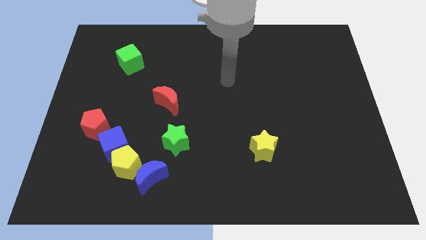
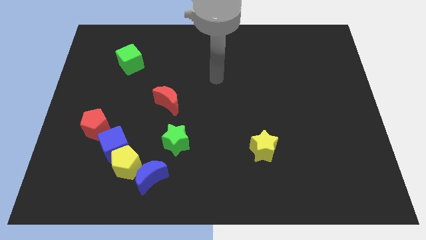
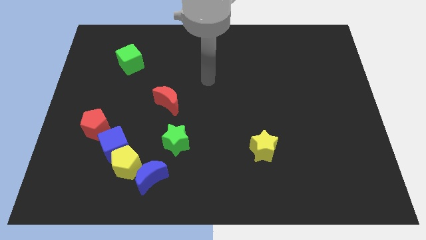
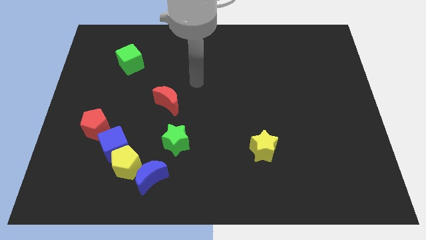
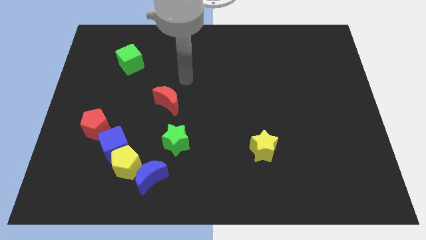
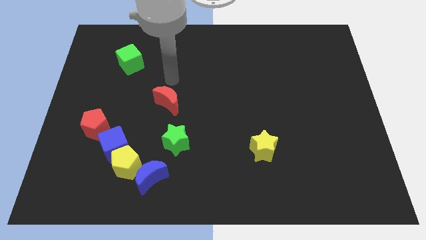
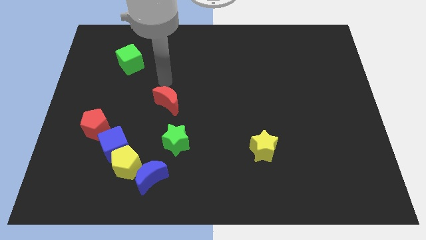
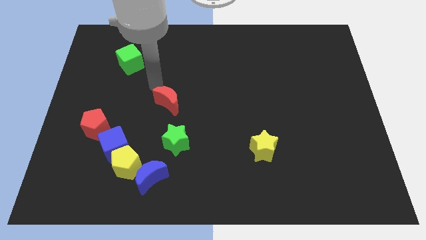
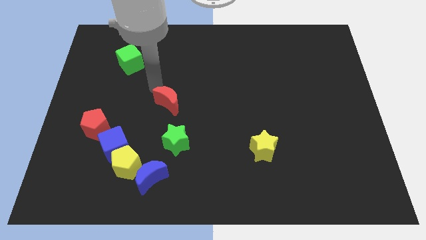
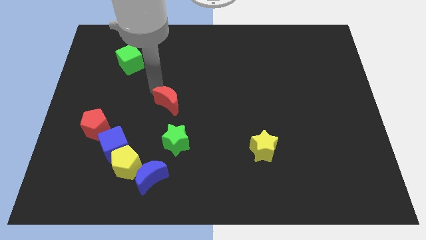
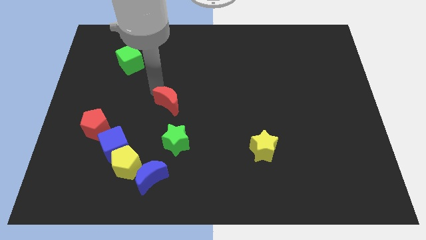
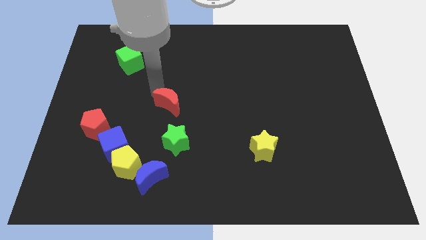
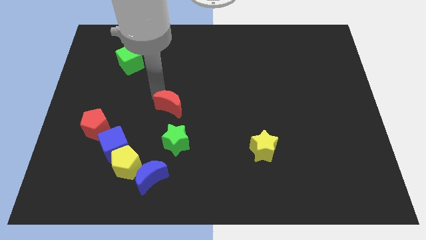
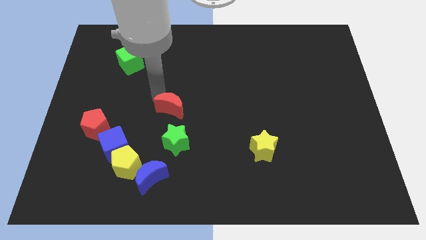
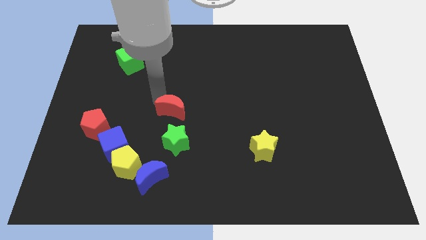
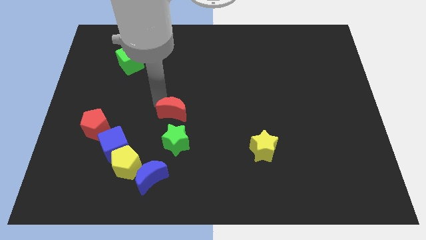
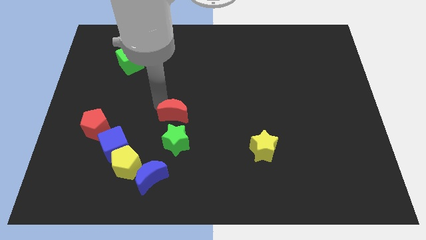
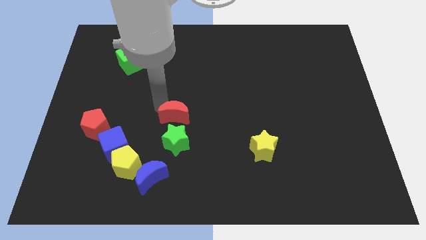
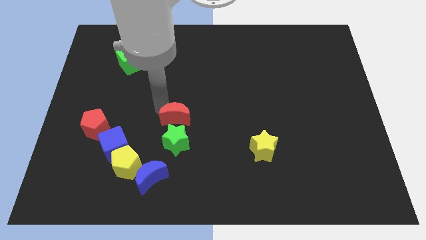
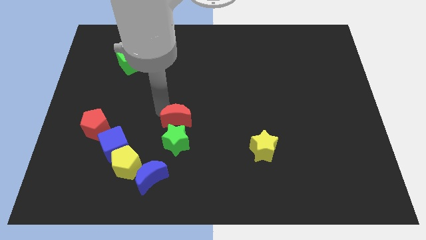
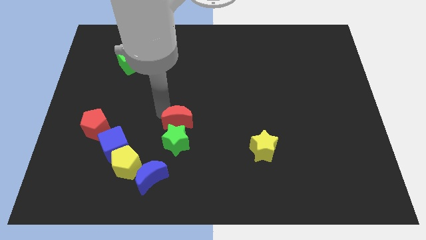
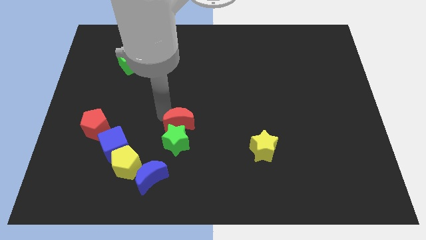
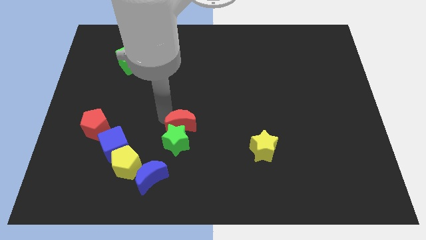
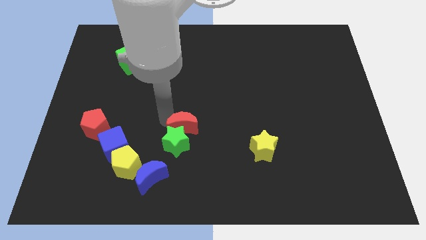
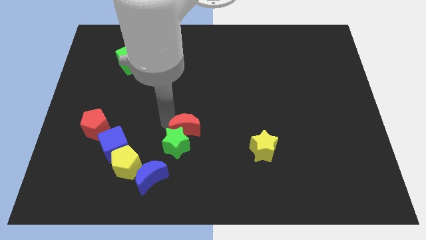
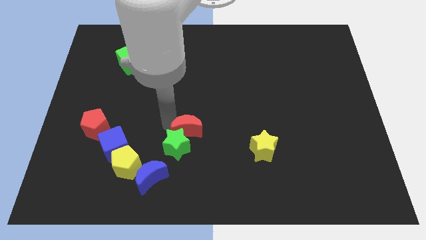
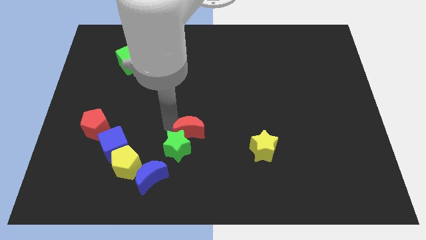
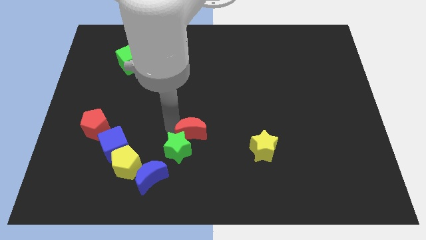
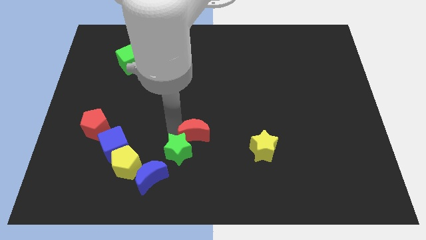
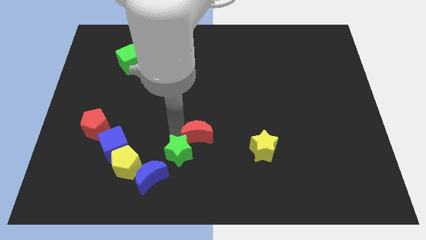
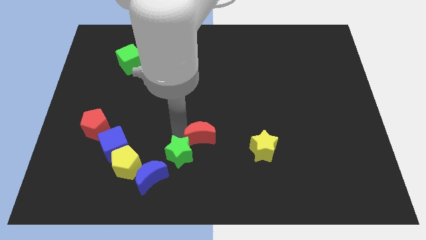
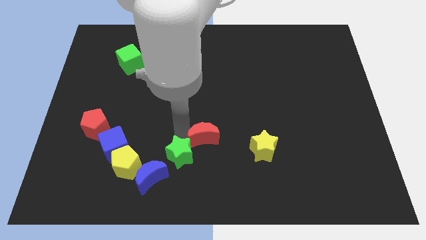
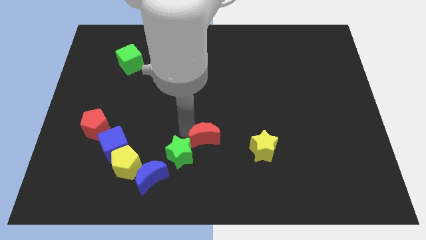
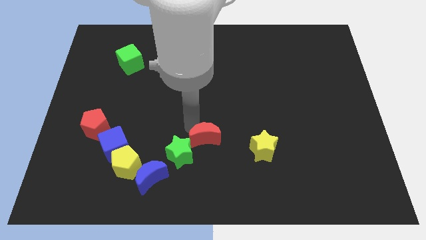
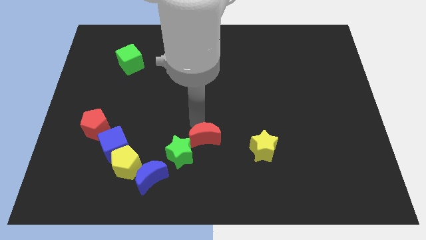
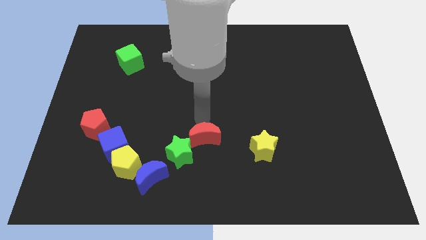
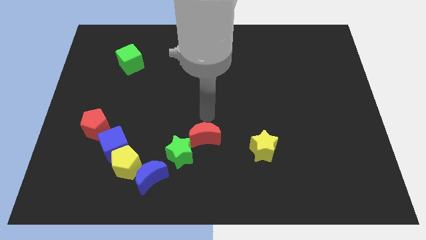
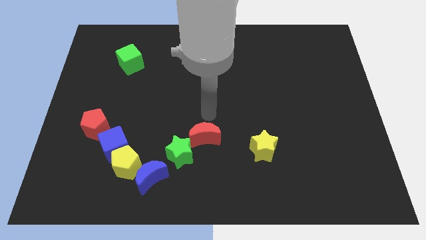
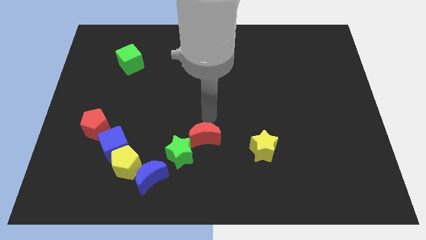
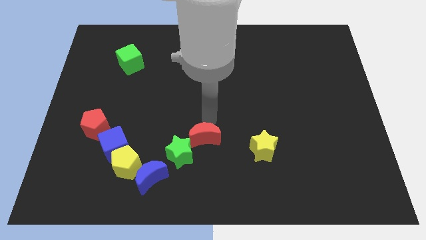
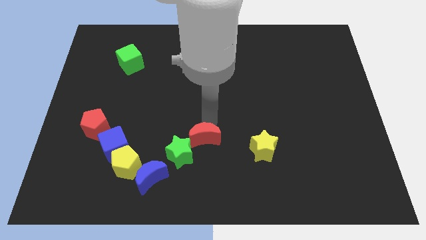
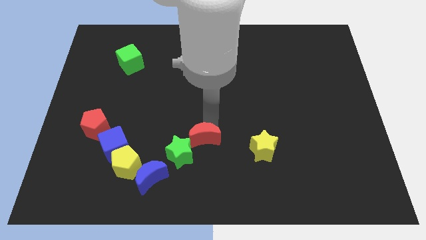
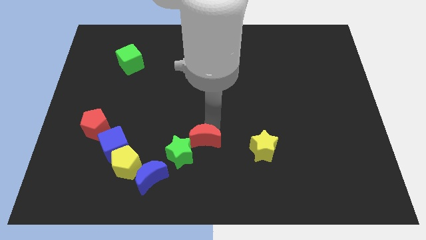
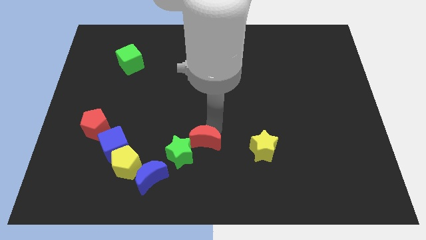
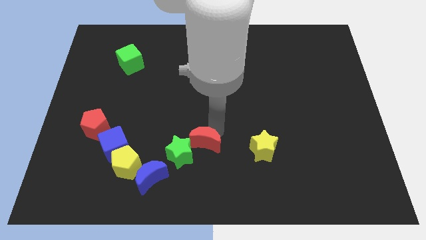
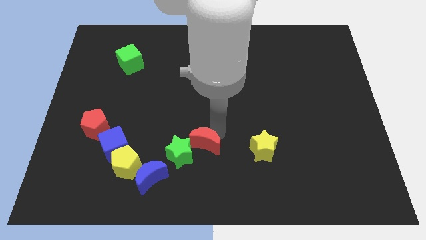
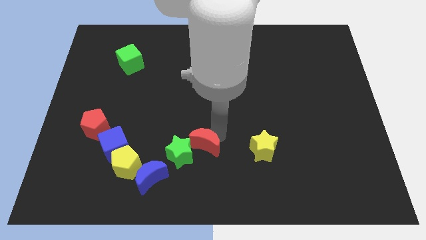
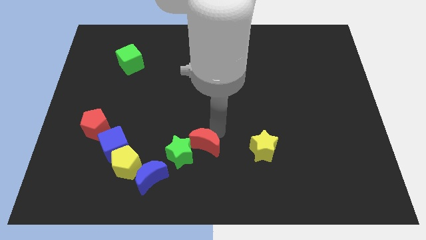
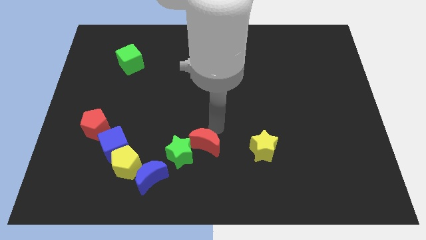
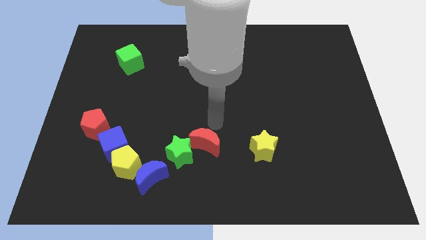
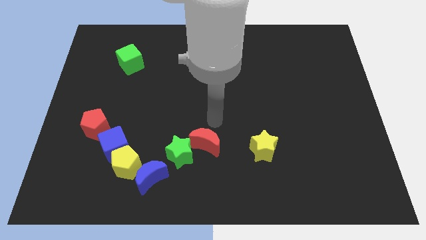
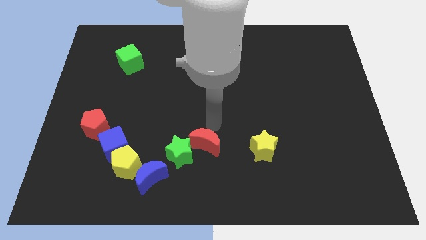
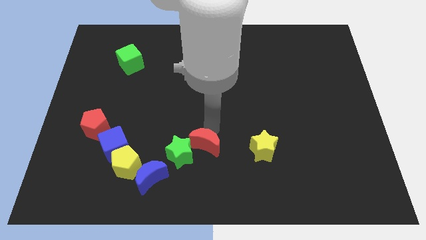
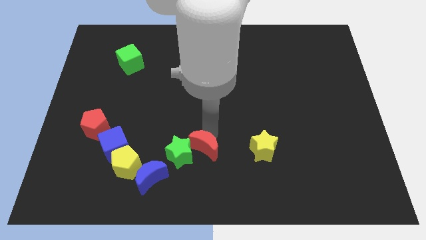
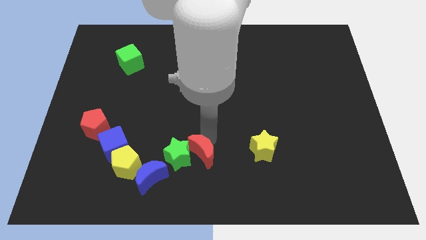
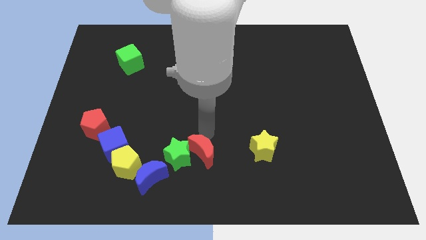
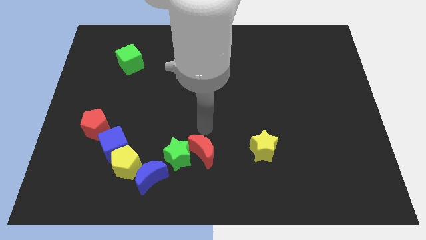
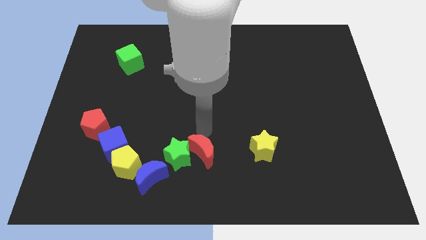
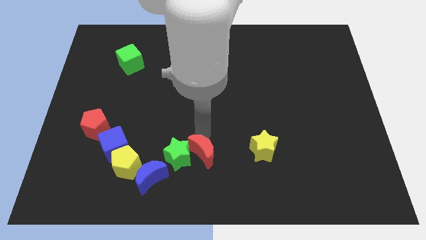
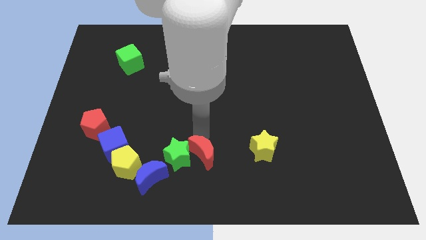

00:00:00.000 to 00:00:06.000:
slide the red moon to the bottom

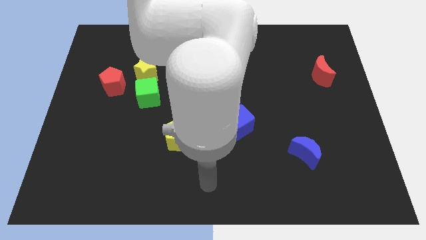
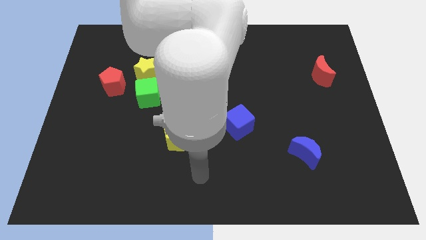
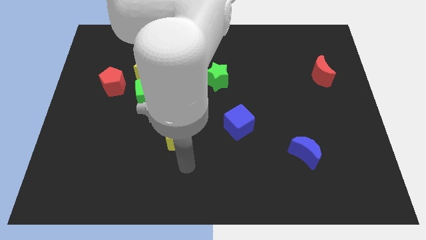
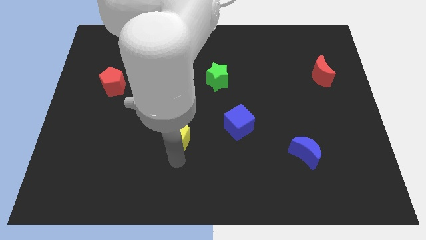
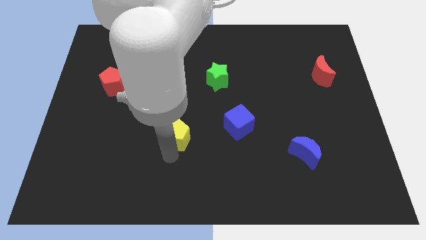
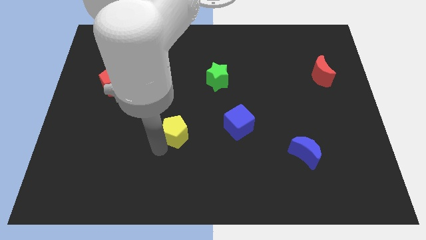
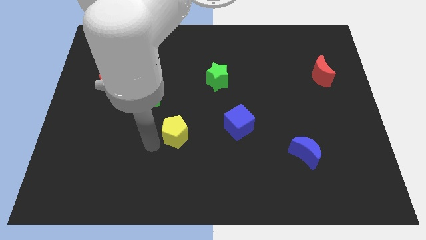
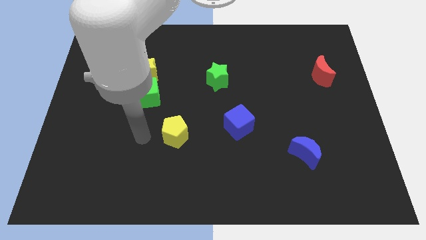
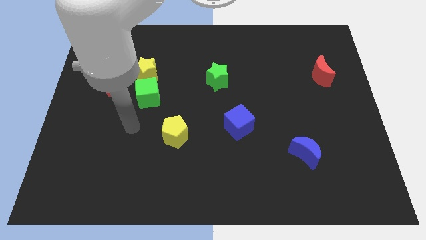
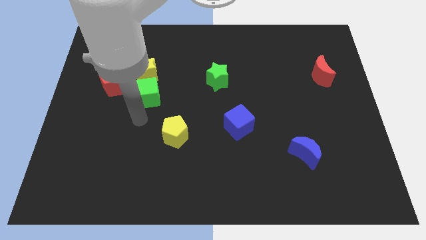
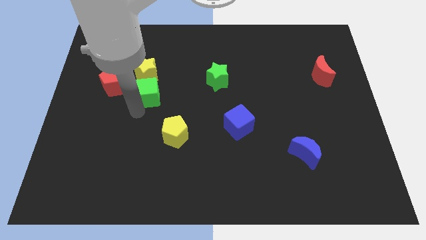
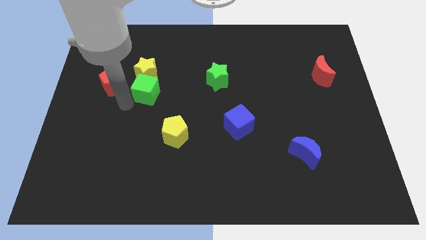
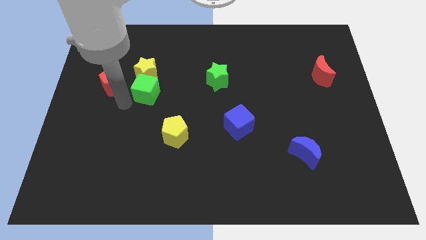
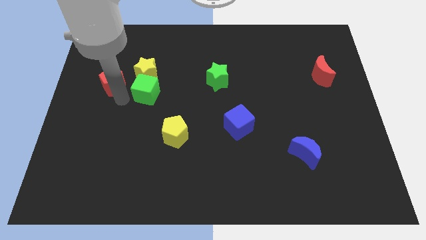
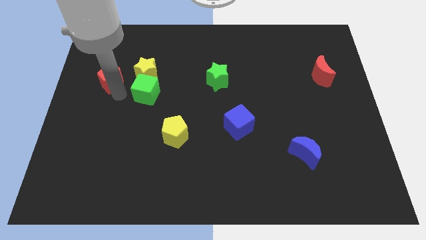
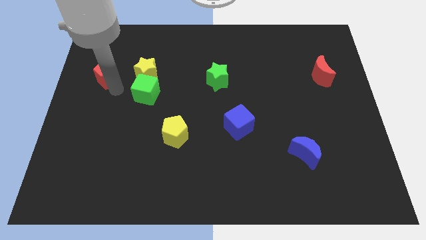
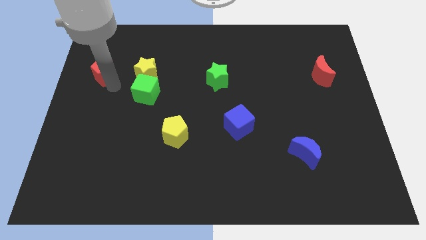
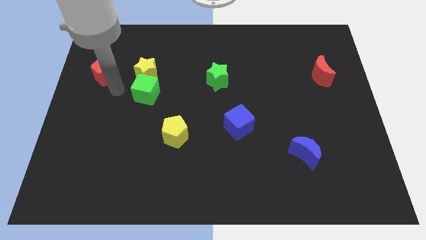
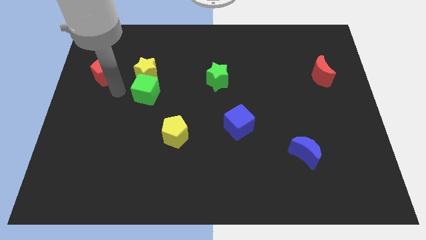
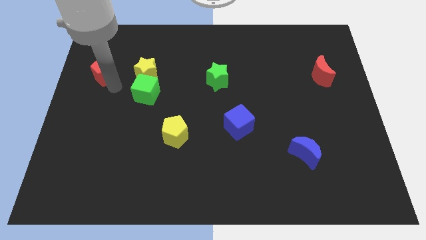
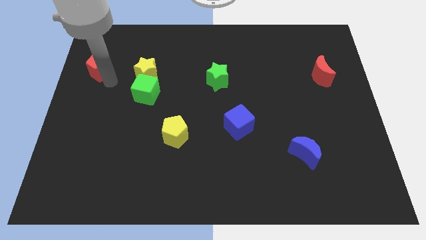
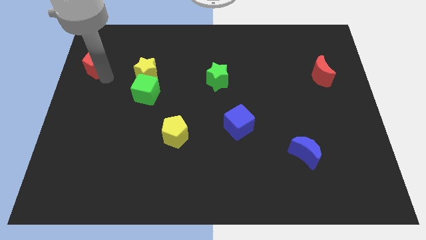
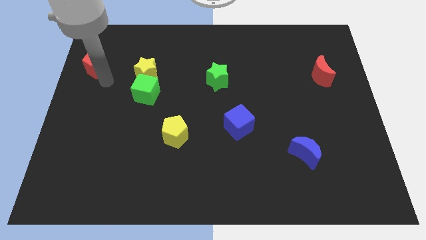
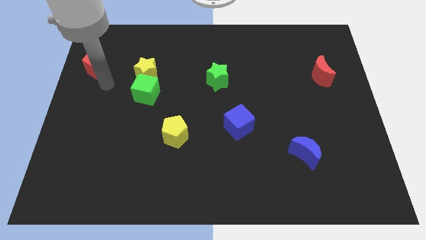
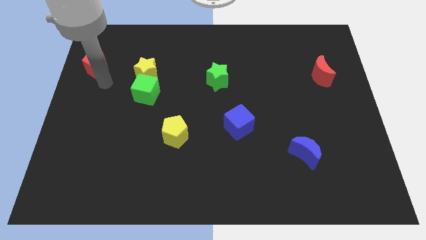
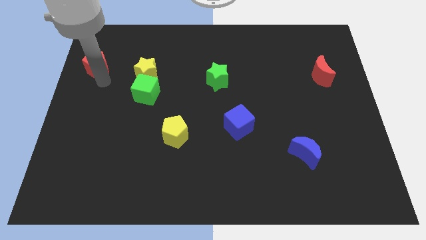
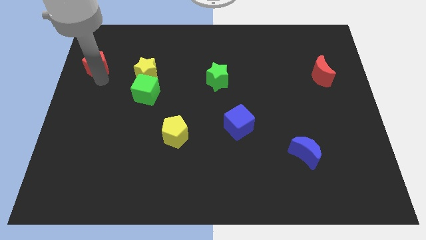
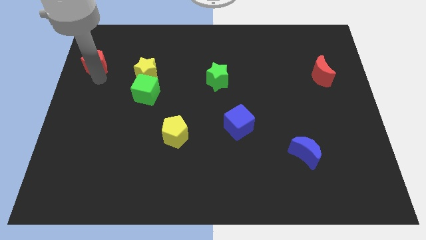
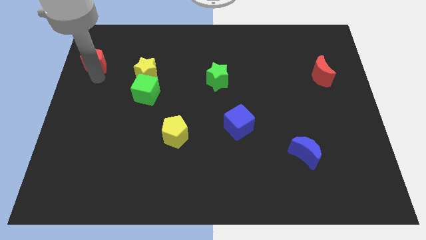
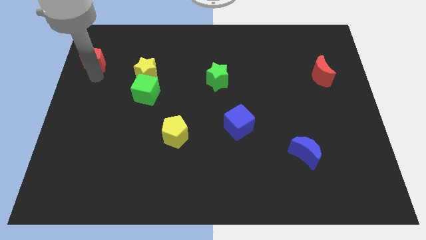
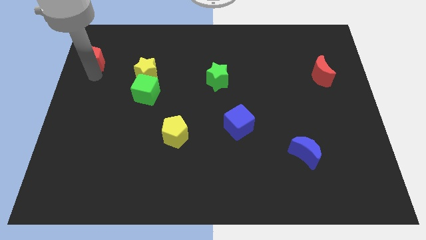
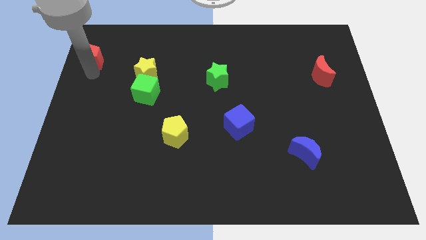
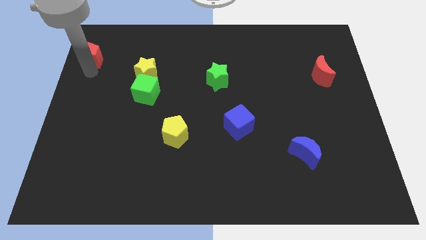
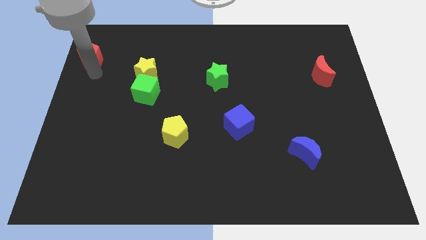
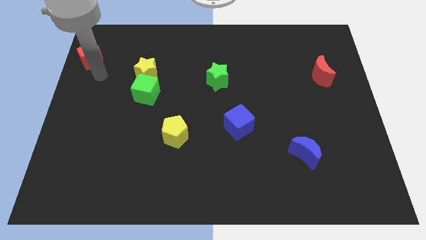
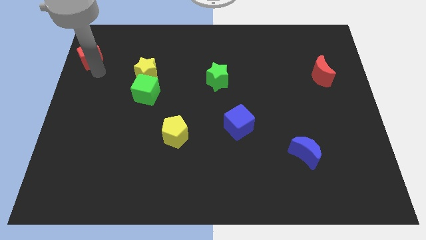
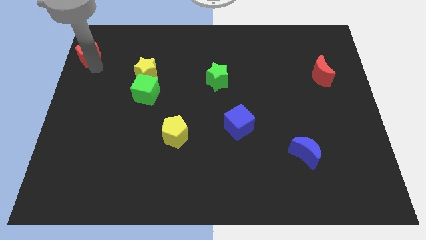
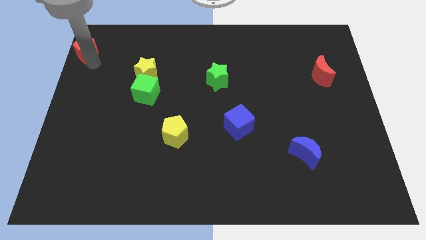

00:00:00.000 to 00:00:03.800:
push the red pentagon to the top left
